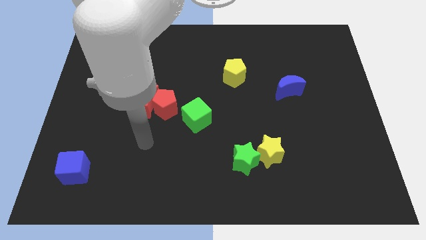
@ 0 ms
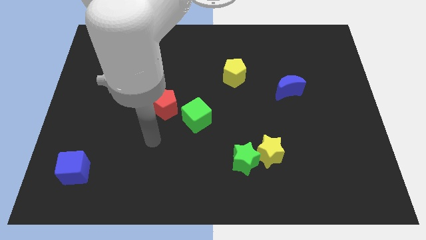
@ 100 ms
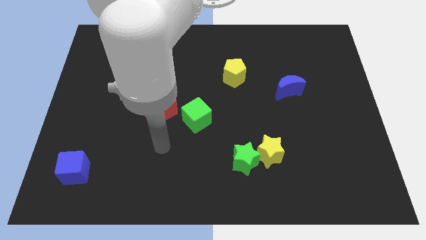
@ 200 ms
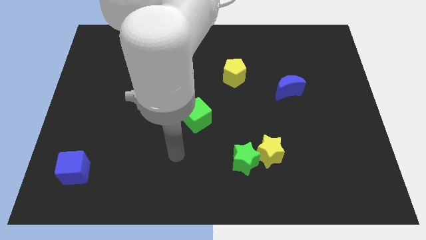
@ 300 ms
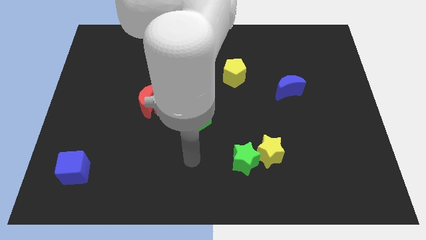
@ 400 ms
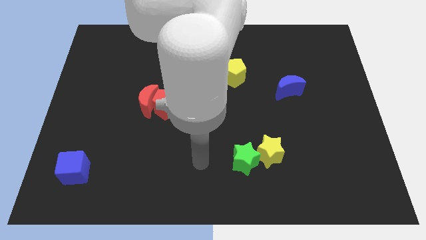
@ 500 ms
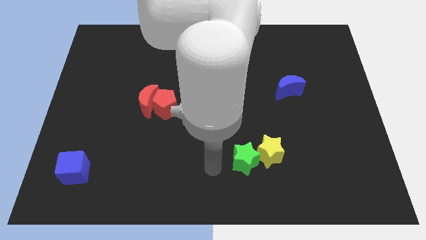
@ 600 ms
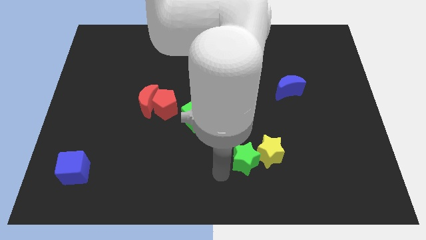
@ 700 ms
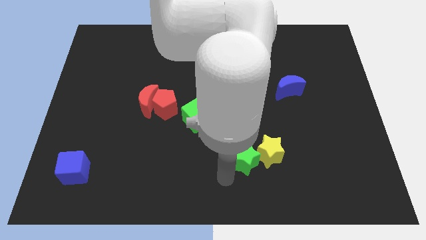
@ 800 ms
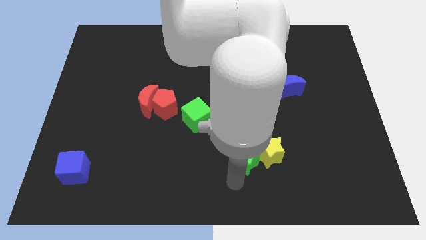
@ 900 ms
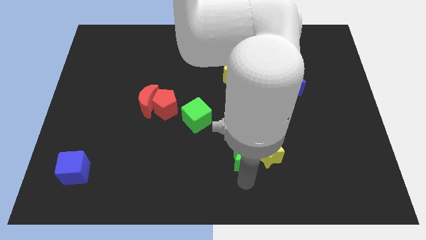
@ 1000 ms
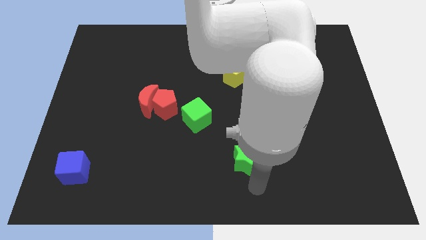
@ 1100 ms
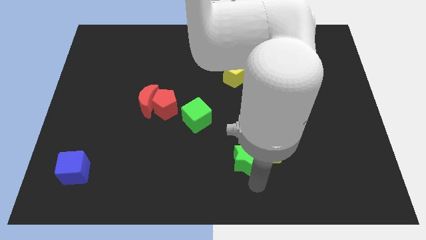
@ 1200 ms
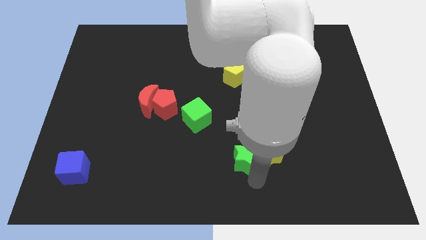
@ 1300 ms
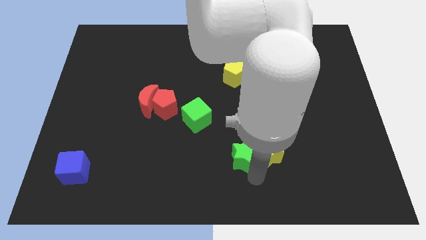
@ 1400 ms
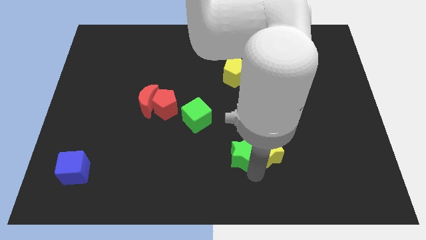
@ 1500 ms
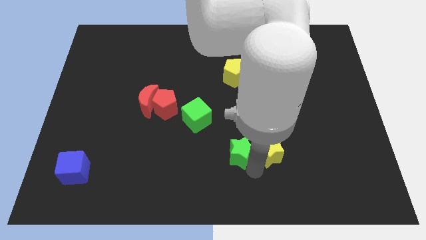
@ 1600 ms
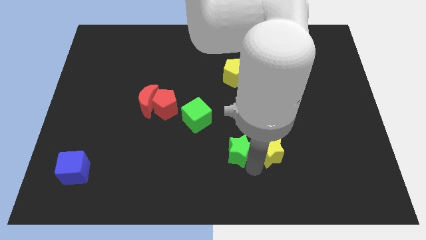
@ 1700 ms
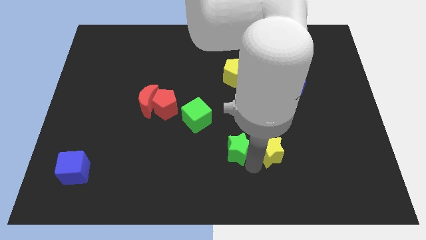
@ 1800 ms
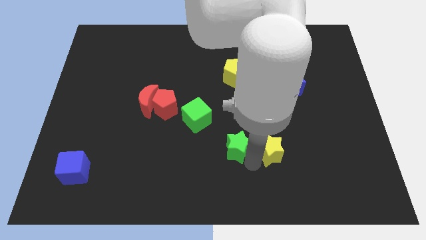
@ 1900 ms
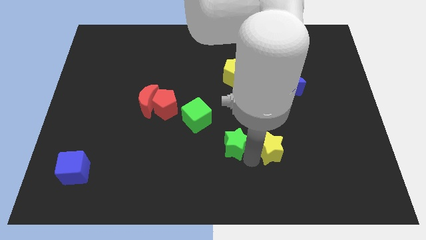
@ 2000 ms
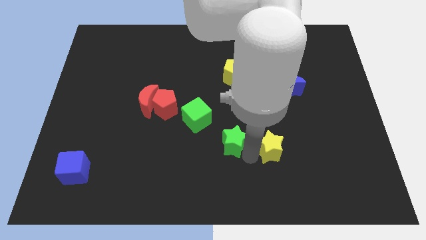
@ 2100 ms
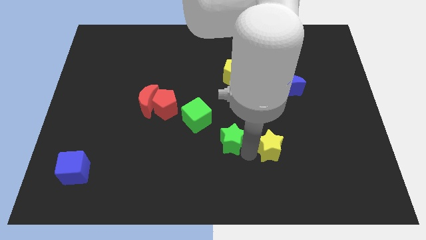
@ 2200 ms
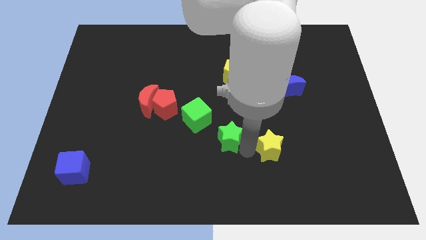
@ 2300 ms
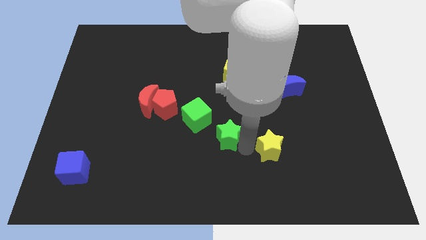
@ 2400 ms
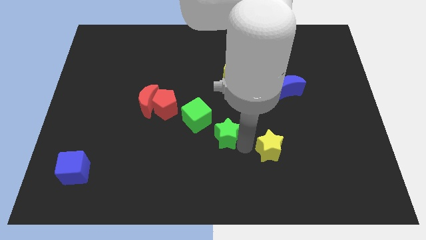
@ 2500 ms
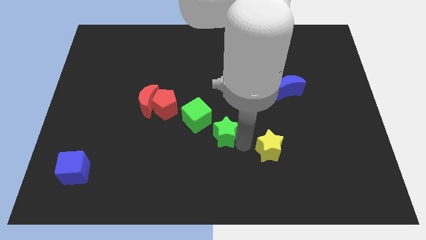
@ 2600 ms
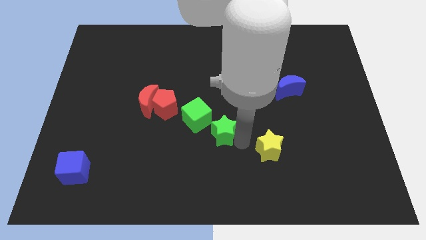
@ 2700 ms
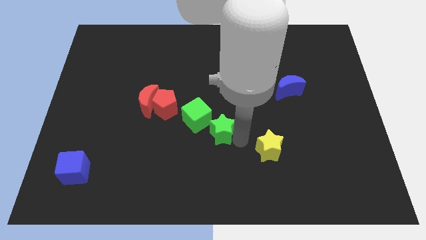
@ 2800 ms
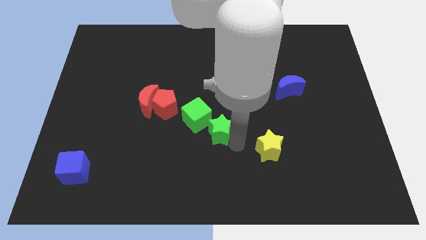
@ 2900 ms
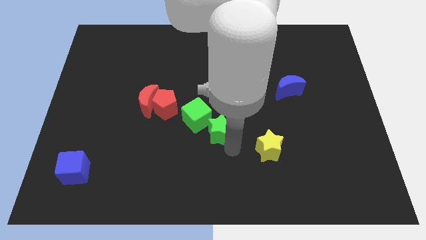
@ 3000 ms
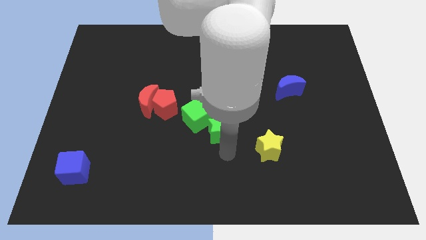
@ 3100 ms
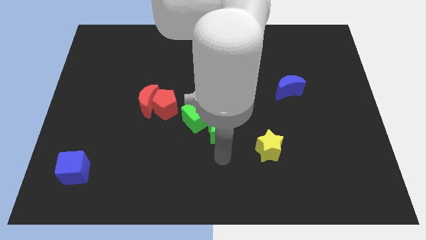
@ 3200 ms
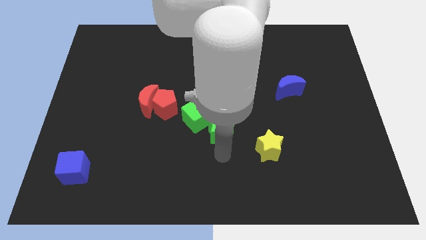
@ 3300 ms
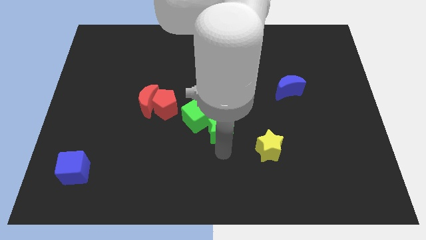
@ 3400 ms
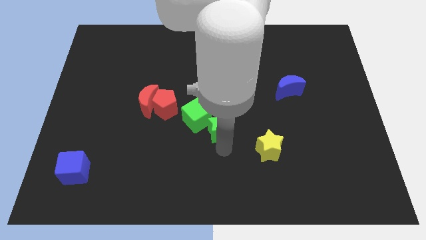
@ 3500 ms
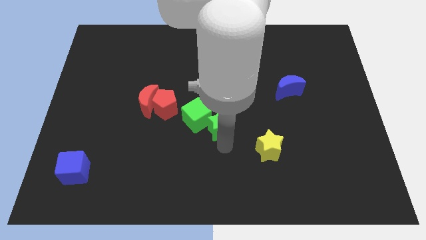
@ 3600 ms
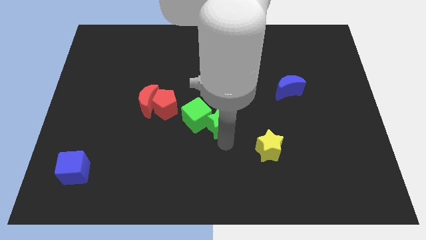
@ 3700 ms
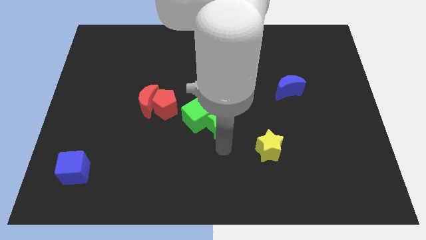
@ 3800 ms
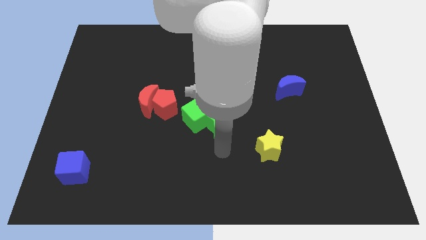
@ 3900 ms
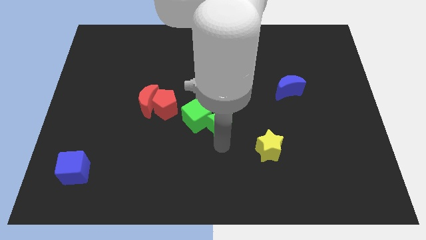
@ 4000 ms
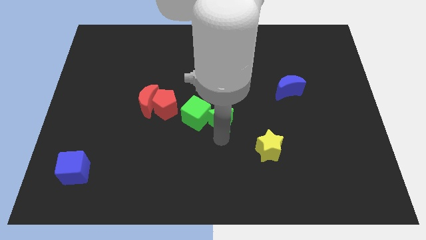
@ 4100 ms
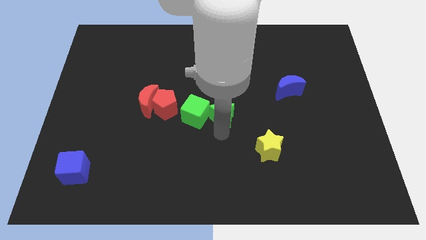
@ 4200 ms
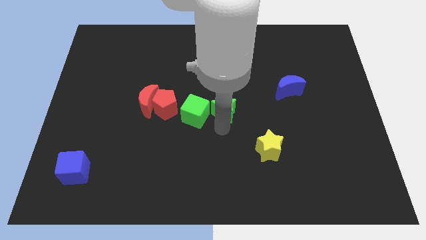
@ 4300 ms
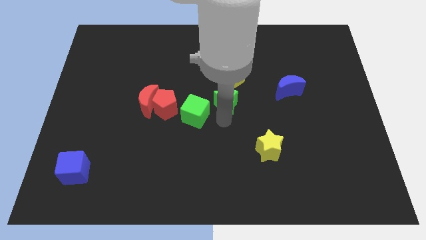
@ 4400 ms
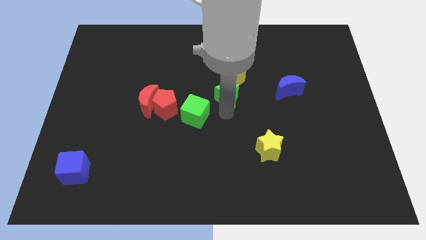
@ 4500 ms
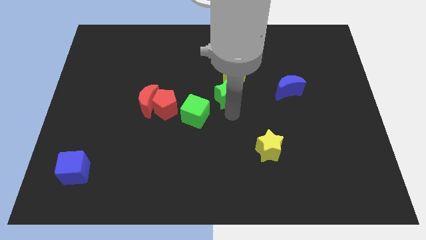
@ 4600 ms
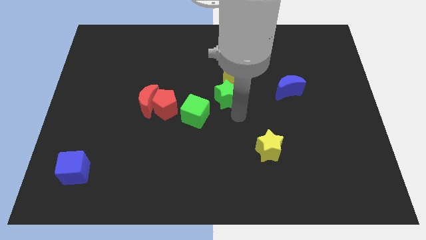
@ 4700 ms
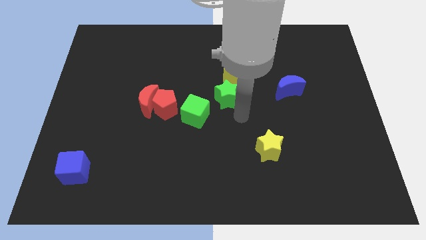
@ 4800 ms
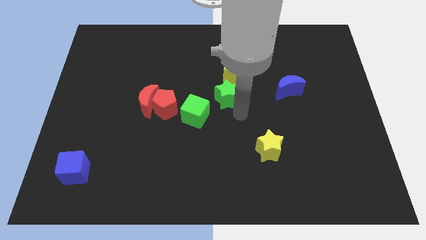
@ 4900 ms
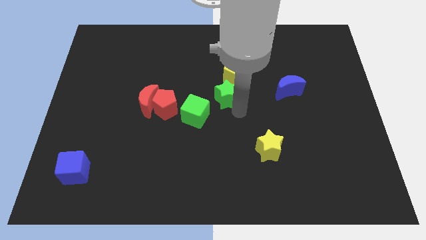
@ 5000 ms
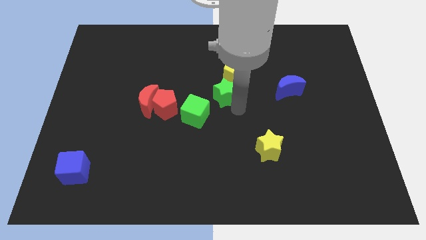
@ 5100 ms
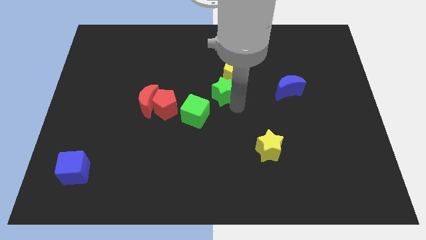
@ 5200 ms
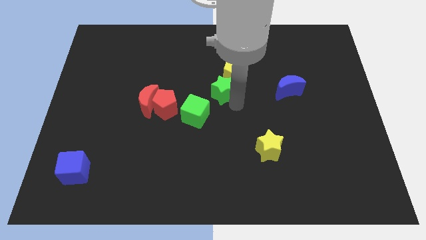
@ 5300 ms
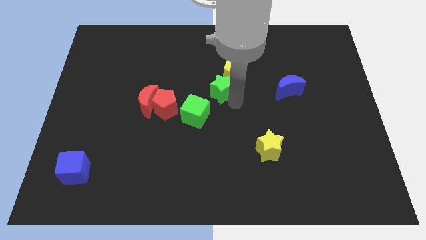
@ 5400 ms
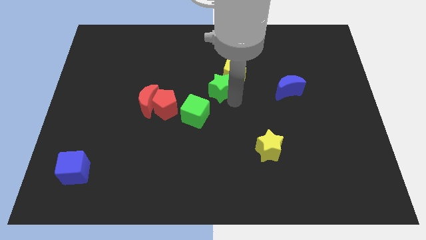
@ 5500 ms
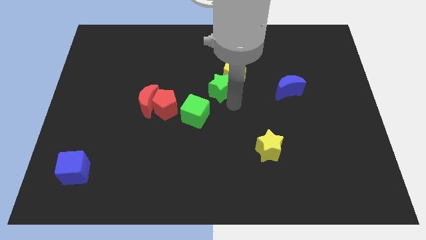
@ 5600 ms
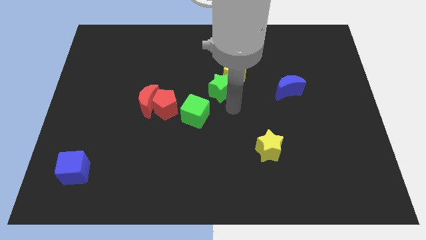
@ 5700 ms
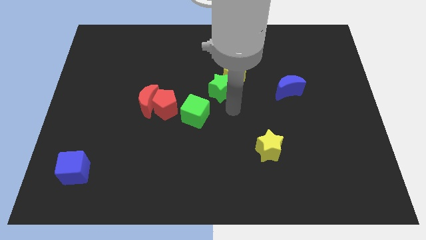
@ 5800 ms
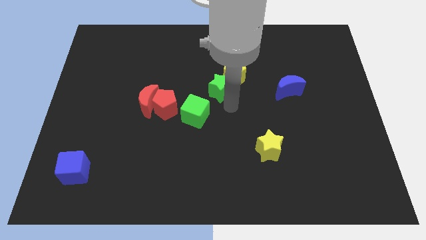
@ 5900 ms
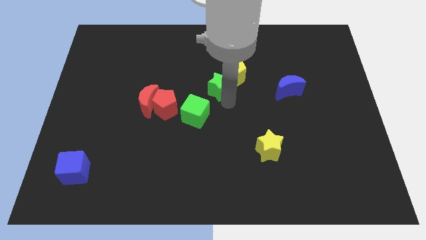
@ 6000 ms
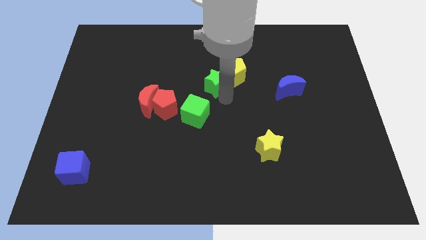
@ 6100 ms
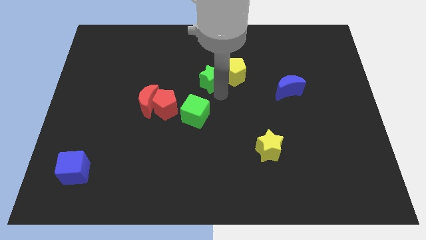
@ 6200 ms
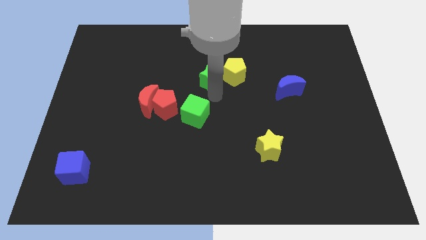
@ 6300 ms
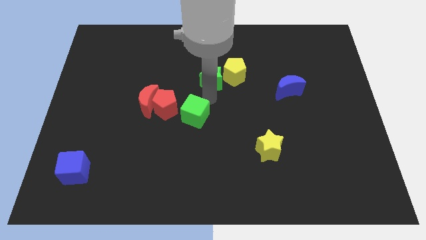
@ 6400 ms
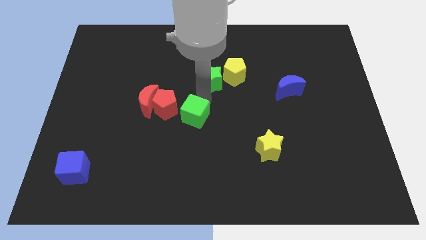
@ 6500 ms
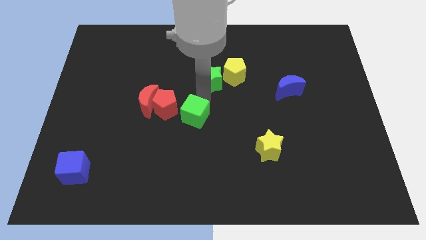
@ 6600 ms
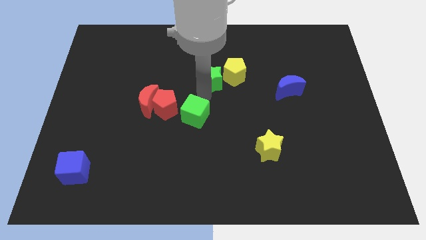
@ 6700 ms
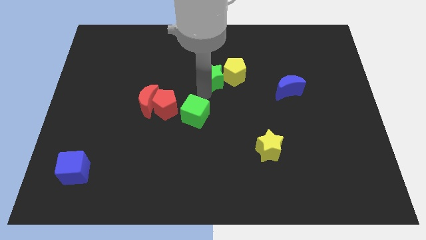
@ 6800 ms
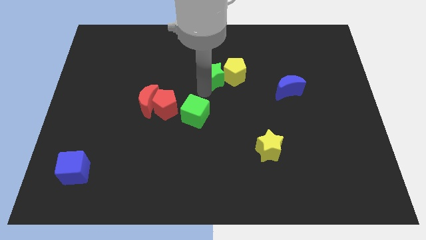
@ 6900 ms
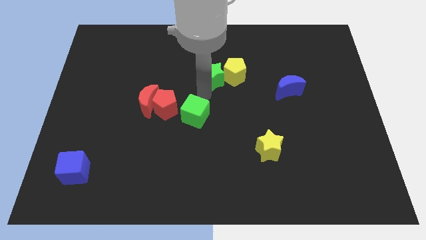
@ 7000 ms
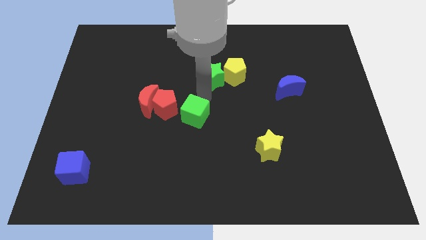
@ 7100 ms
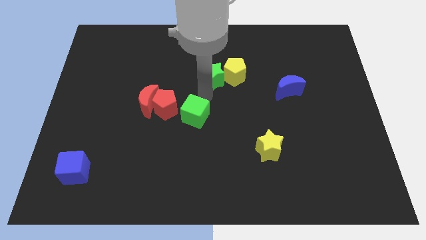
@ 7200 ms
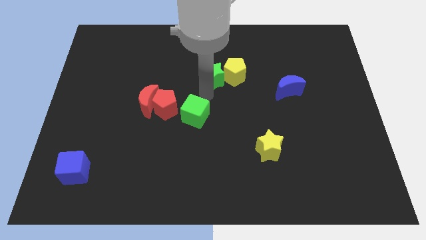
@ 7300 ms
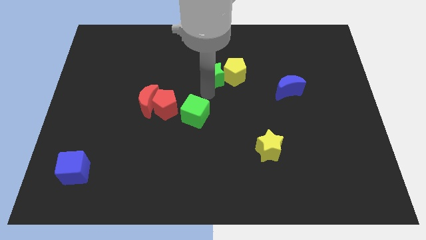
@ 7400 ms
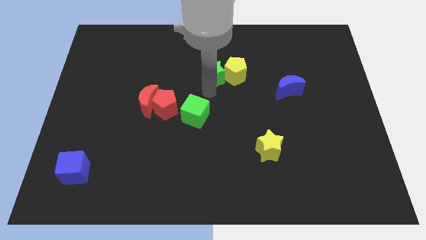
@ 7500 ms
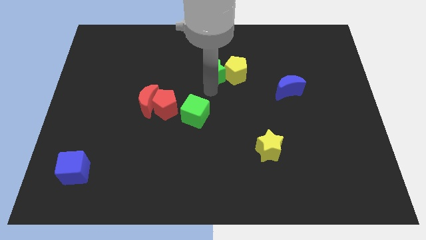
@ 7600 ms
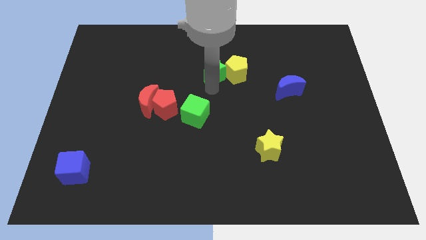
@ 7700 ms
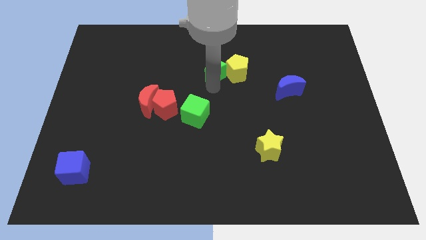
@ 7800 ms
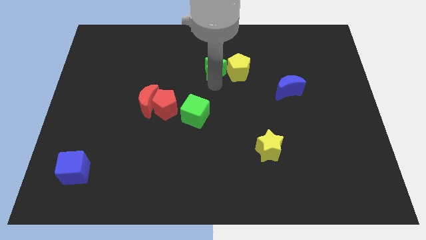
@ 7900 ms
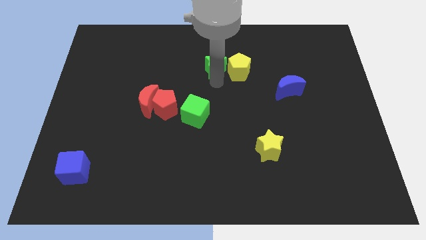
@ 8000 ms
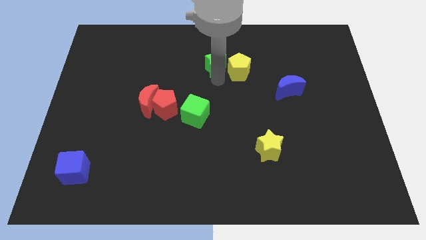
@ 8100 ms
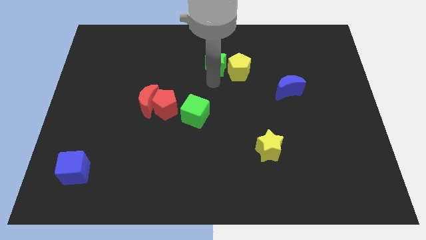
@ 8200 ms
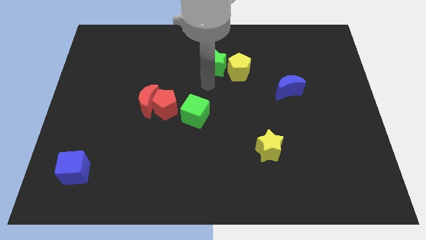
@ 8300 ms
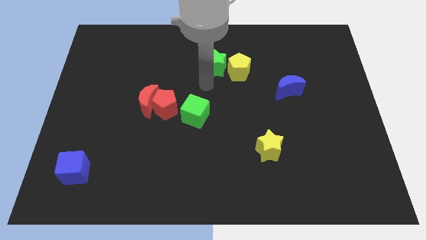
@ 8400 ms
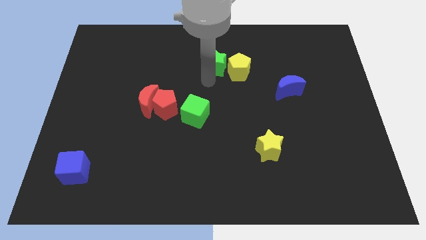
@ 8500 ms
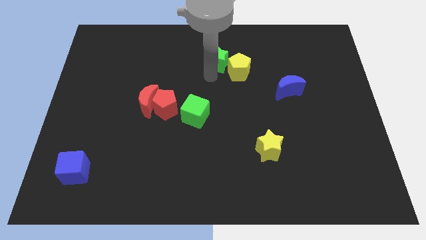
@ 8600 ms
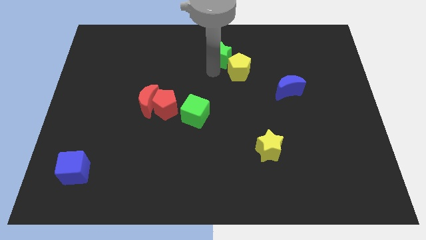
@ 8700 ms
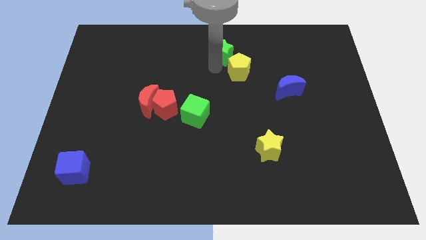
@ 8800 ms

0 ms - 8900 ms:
move the green star to the top side
